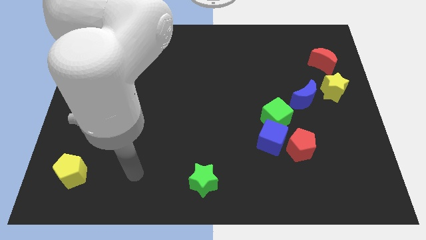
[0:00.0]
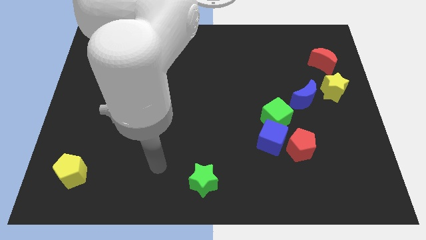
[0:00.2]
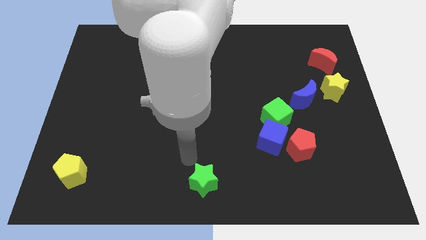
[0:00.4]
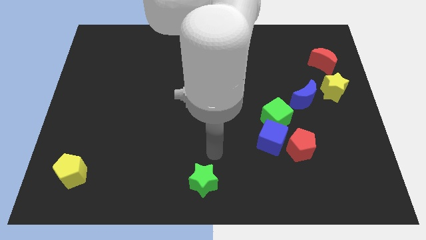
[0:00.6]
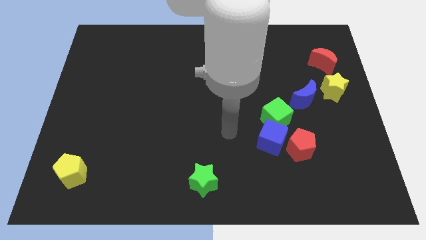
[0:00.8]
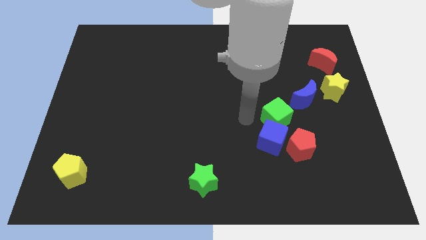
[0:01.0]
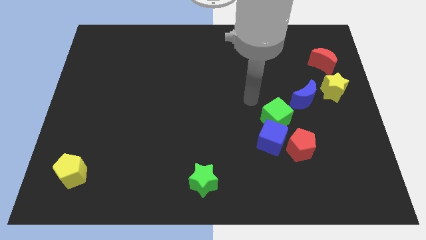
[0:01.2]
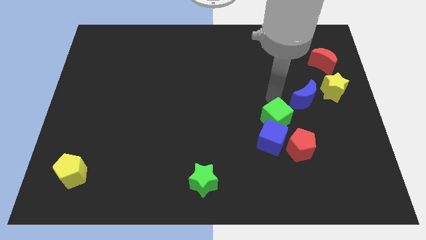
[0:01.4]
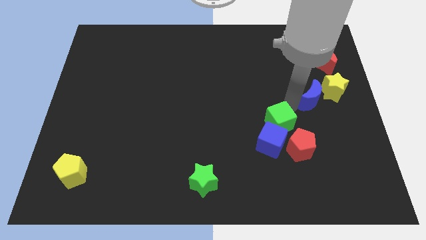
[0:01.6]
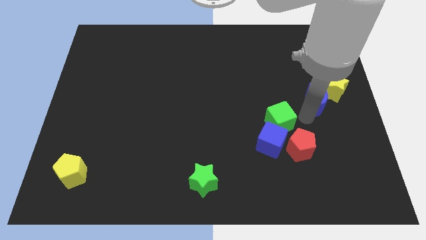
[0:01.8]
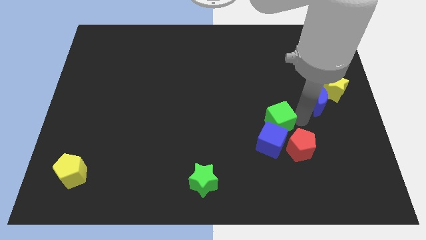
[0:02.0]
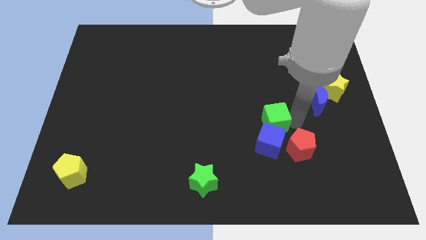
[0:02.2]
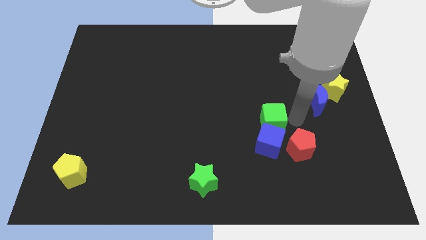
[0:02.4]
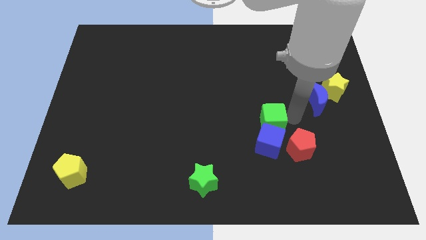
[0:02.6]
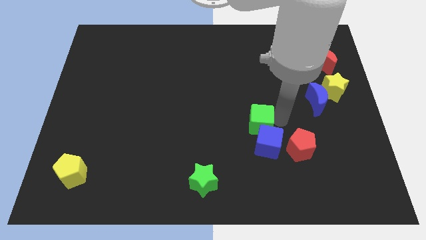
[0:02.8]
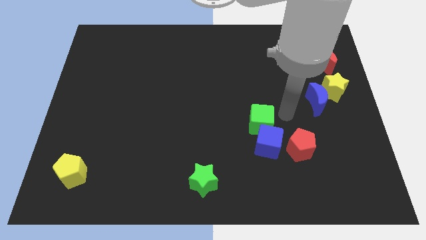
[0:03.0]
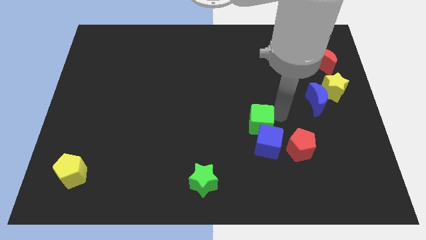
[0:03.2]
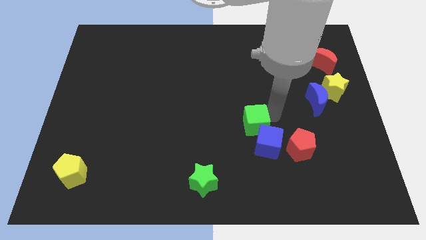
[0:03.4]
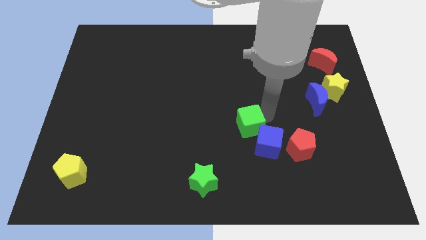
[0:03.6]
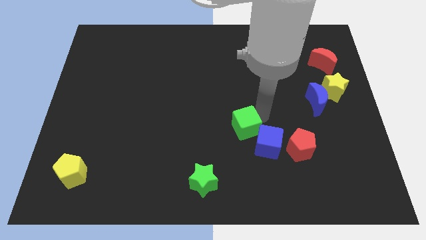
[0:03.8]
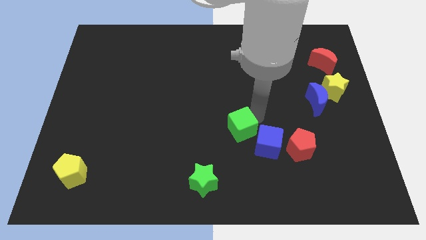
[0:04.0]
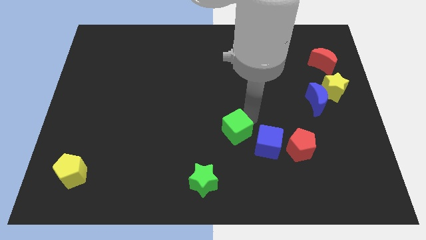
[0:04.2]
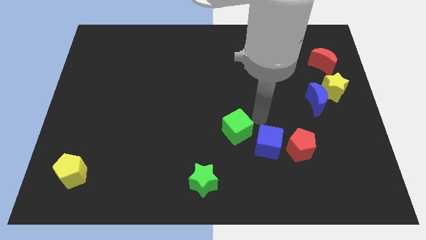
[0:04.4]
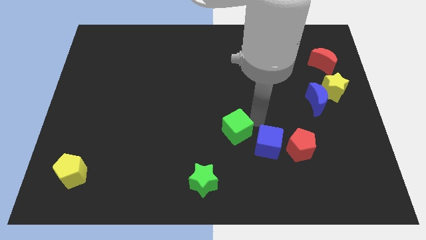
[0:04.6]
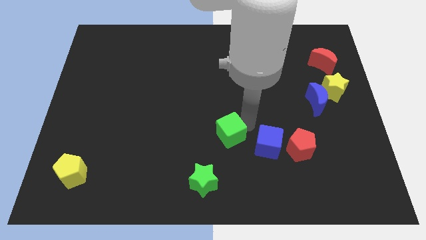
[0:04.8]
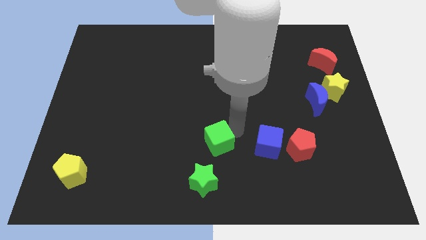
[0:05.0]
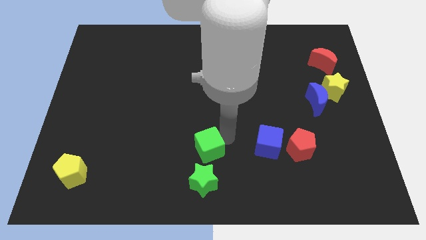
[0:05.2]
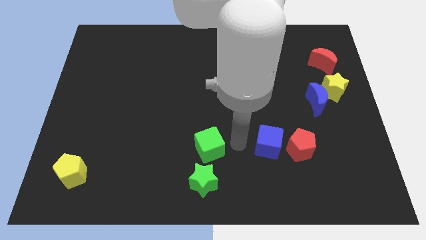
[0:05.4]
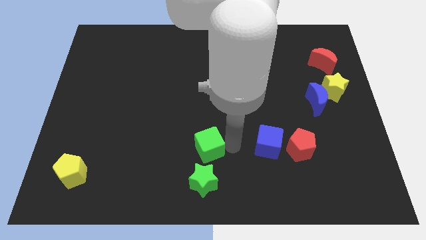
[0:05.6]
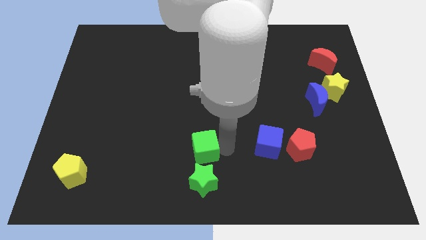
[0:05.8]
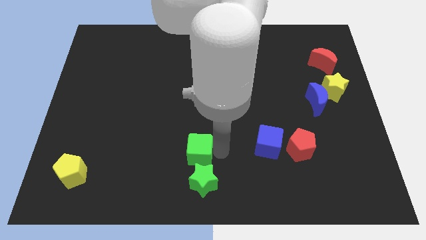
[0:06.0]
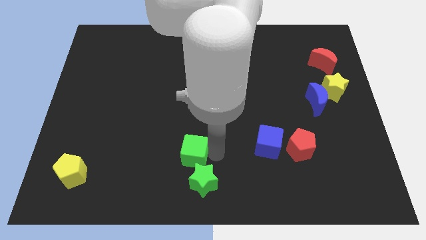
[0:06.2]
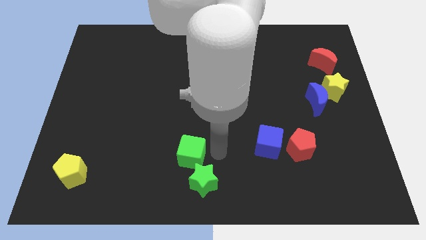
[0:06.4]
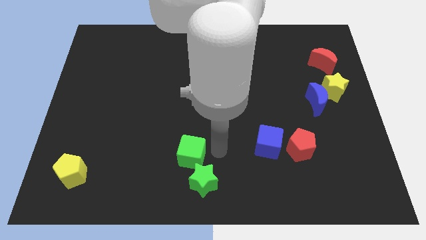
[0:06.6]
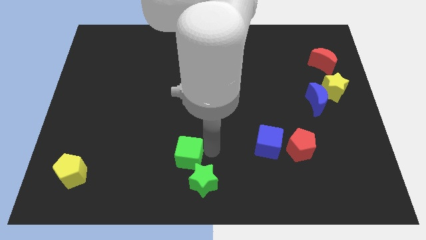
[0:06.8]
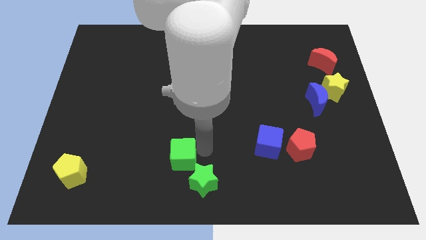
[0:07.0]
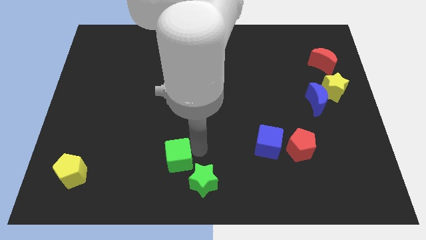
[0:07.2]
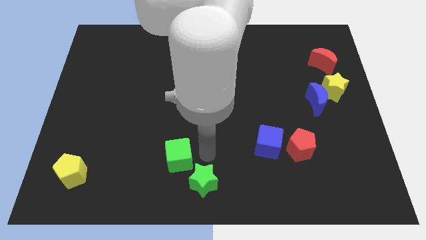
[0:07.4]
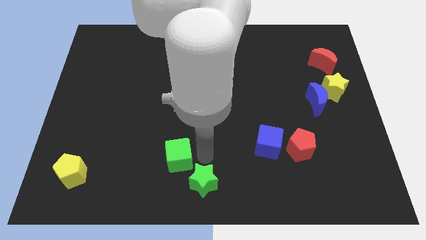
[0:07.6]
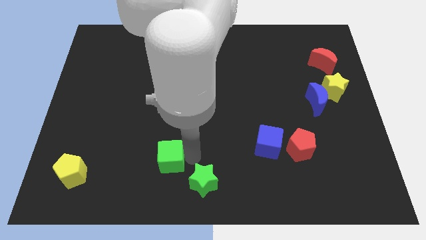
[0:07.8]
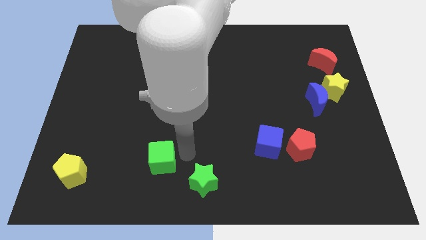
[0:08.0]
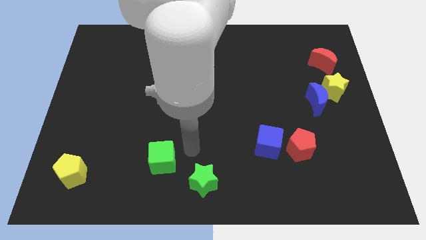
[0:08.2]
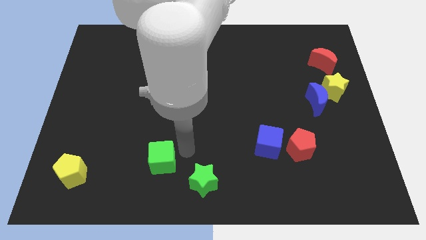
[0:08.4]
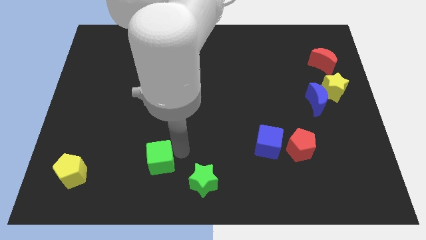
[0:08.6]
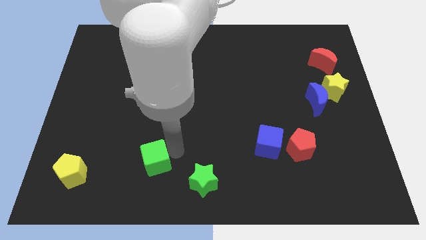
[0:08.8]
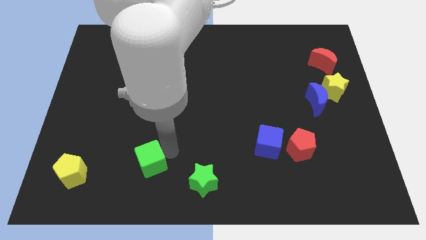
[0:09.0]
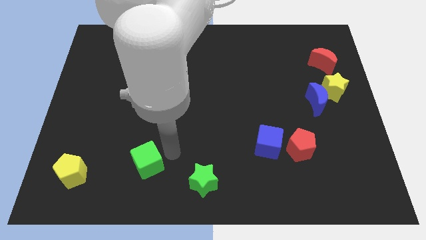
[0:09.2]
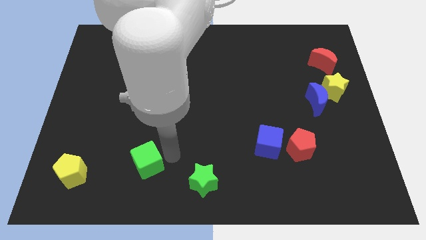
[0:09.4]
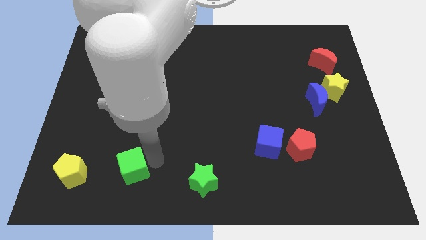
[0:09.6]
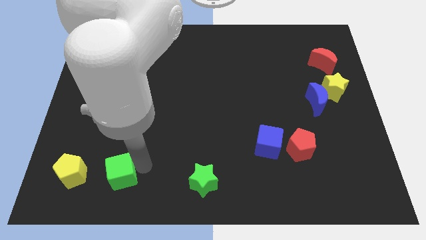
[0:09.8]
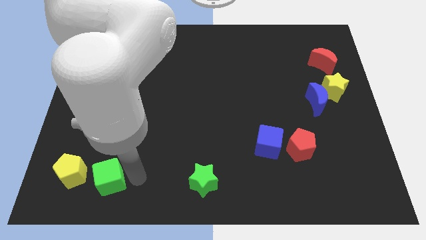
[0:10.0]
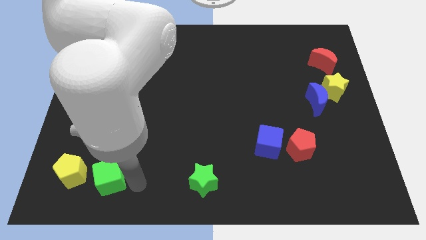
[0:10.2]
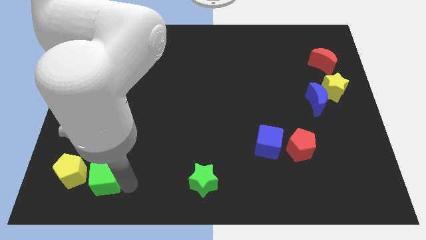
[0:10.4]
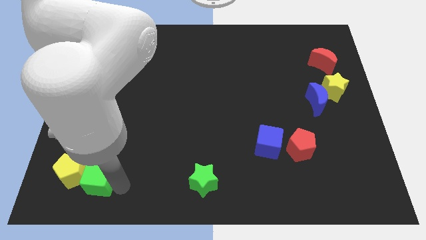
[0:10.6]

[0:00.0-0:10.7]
move the green cube to the yellow pentagon

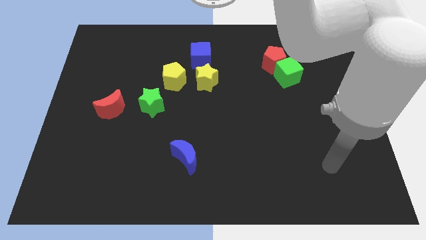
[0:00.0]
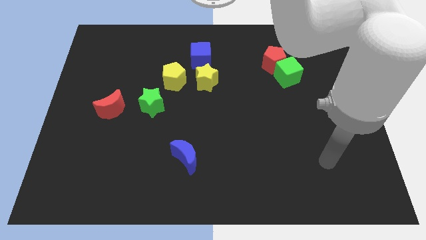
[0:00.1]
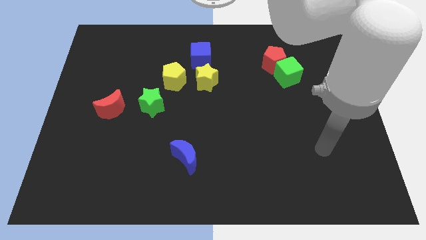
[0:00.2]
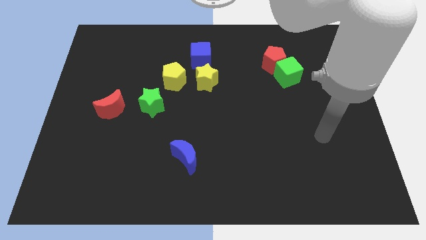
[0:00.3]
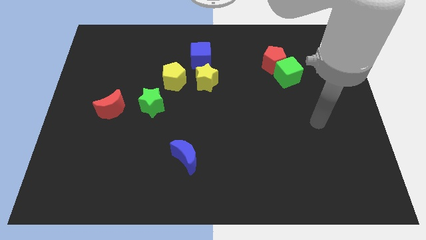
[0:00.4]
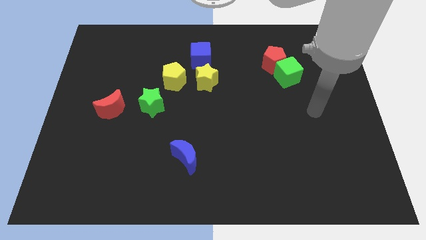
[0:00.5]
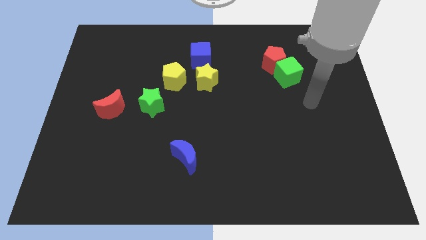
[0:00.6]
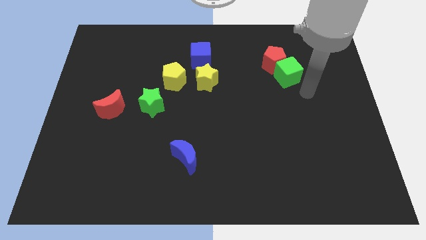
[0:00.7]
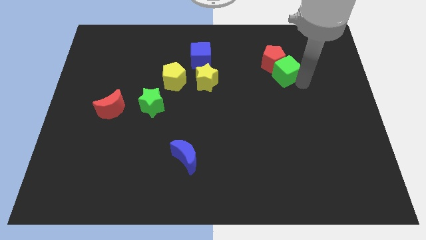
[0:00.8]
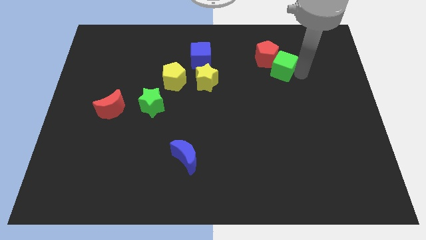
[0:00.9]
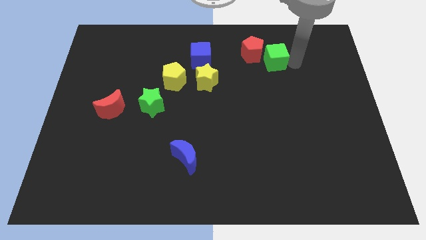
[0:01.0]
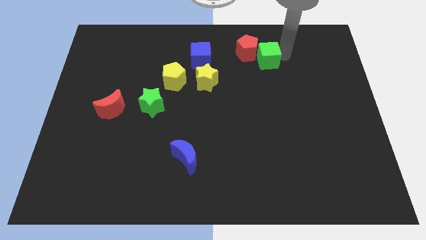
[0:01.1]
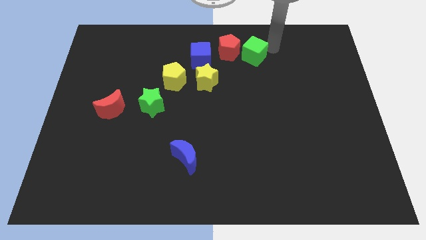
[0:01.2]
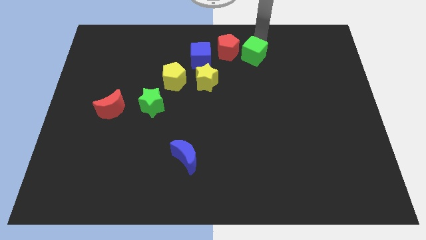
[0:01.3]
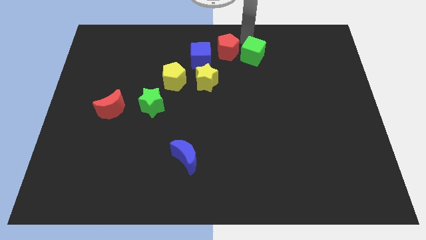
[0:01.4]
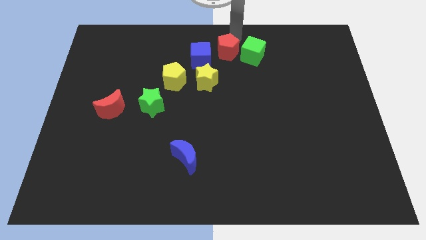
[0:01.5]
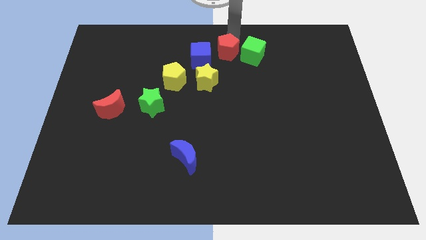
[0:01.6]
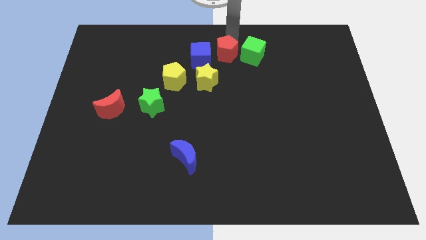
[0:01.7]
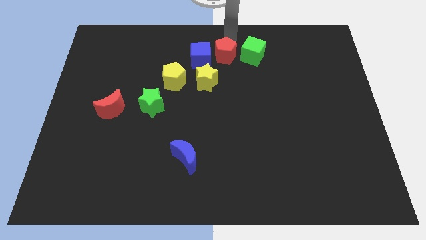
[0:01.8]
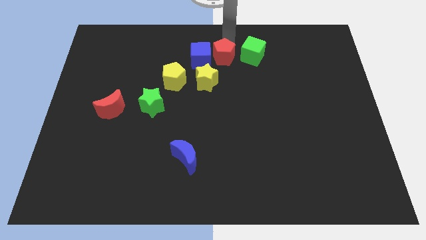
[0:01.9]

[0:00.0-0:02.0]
move the red pentagon towards the blue cube
